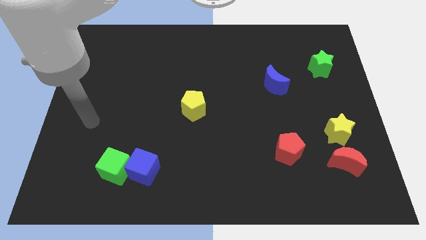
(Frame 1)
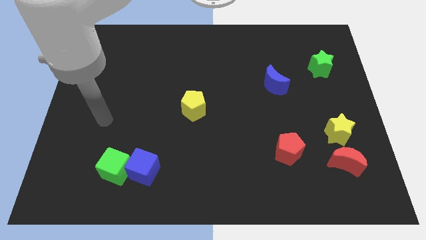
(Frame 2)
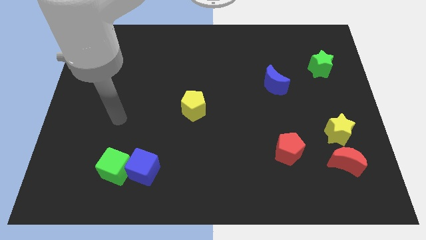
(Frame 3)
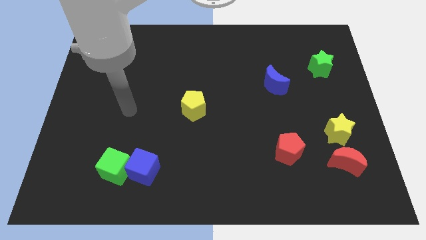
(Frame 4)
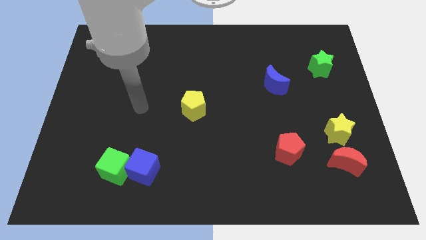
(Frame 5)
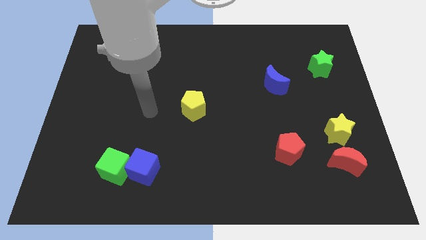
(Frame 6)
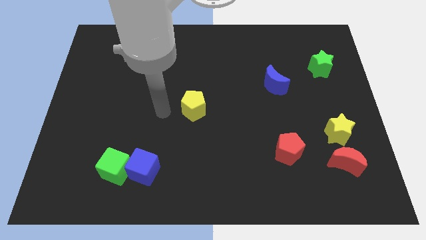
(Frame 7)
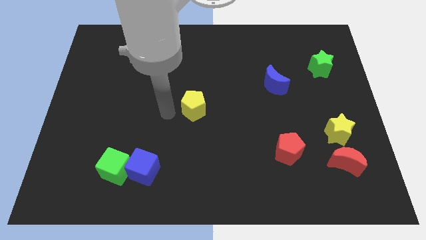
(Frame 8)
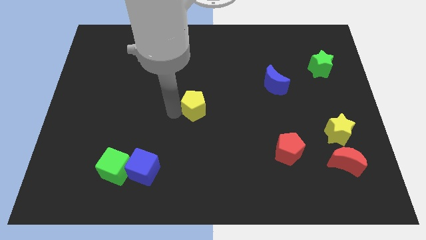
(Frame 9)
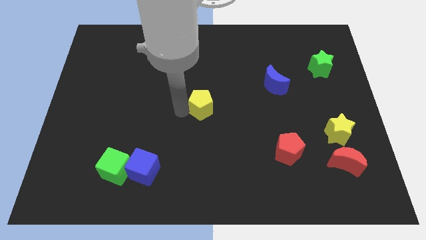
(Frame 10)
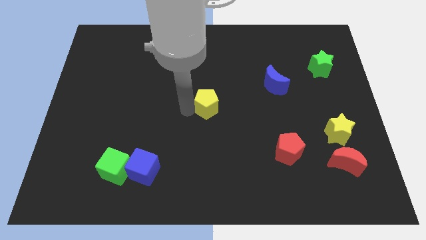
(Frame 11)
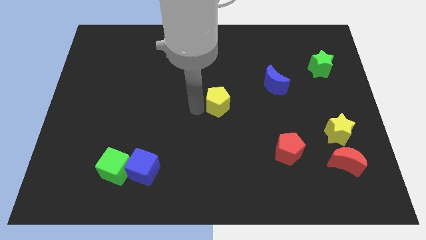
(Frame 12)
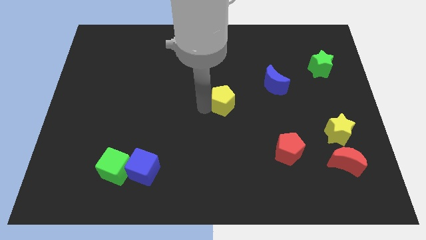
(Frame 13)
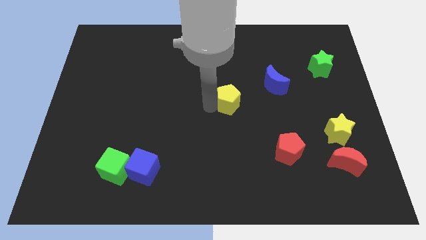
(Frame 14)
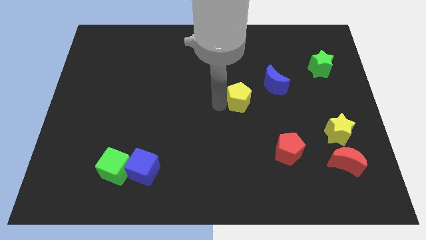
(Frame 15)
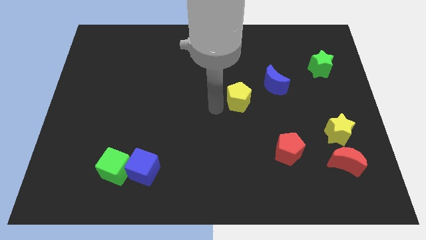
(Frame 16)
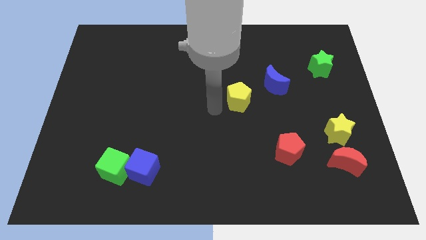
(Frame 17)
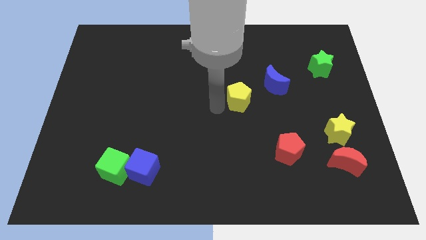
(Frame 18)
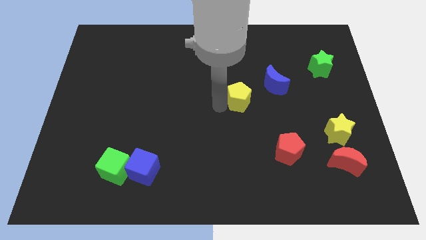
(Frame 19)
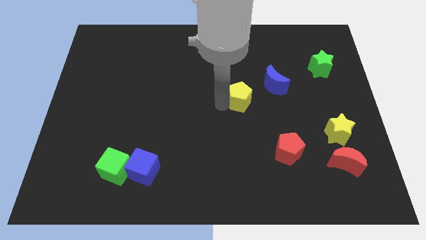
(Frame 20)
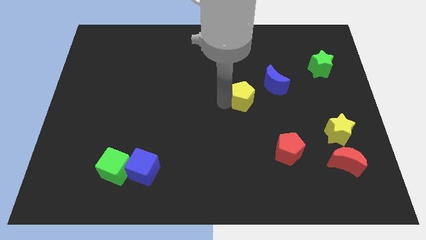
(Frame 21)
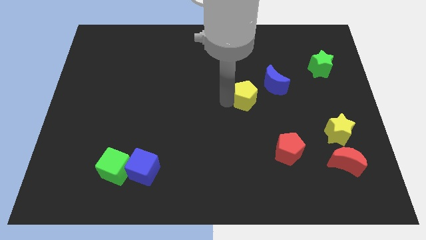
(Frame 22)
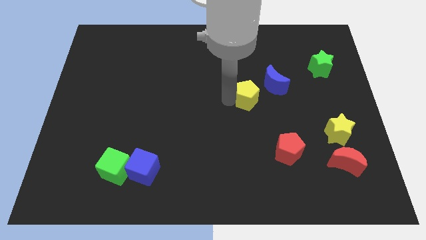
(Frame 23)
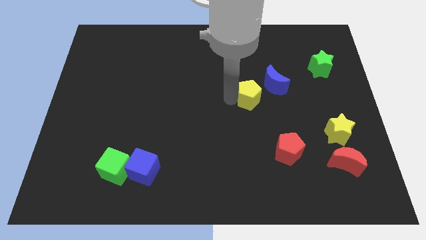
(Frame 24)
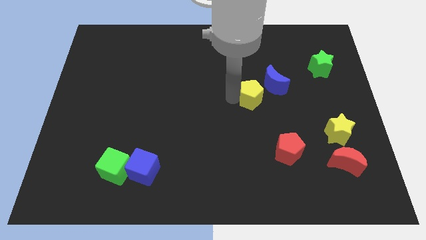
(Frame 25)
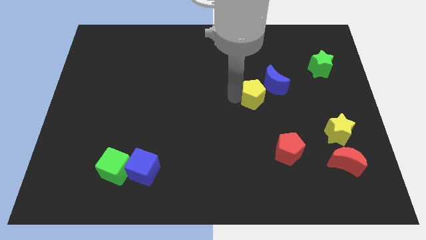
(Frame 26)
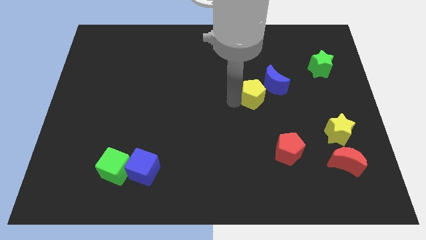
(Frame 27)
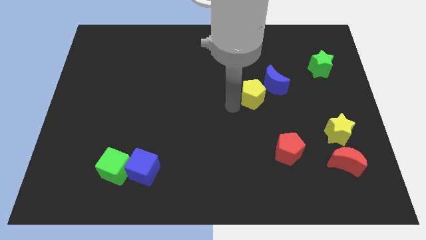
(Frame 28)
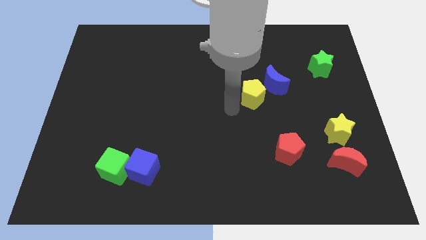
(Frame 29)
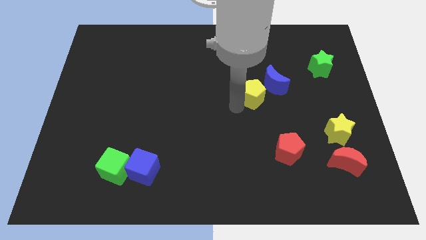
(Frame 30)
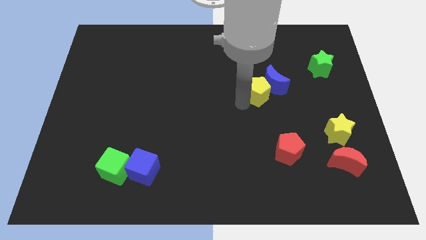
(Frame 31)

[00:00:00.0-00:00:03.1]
move the yellow pentagon towards the blue moon

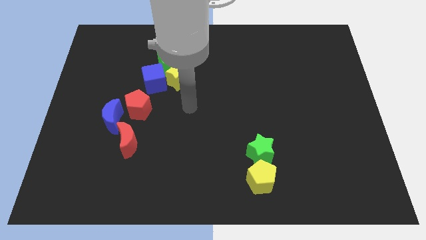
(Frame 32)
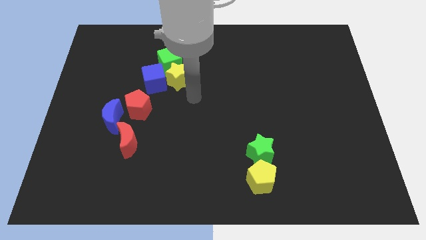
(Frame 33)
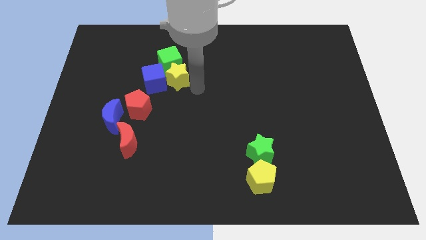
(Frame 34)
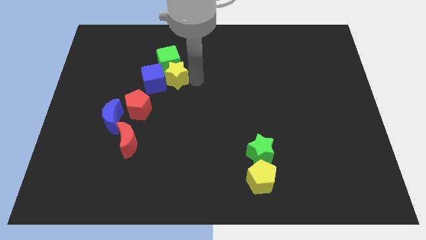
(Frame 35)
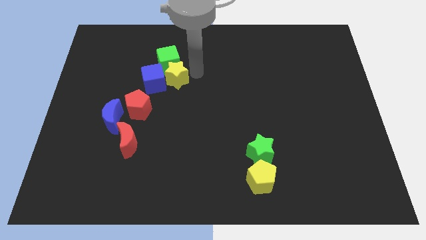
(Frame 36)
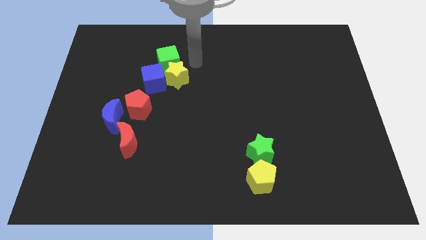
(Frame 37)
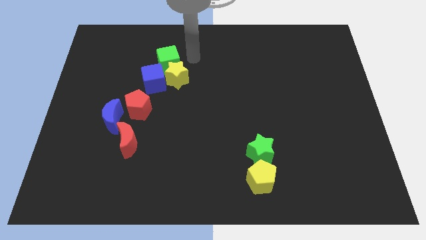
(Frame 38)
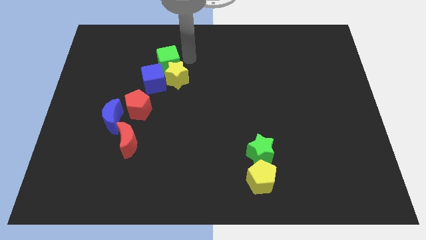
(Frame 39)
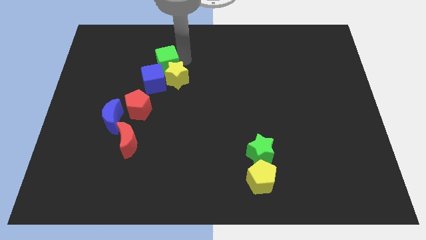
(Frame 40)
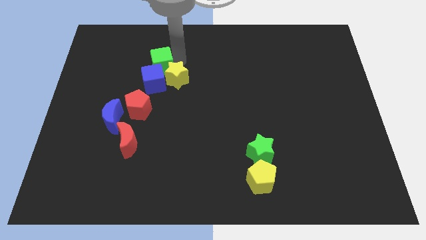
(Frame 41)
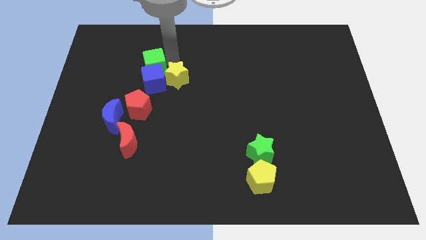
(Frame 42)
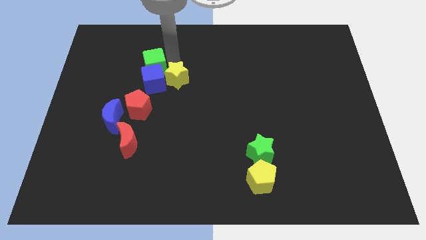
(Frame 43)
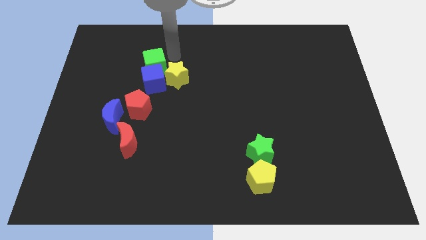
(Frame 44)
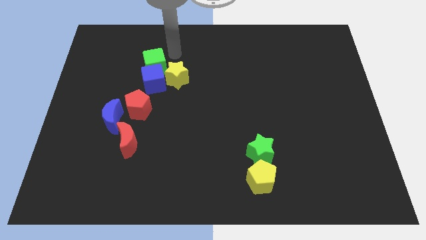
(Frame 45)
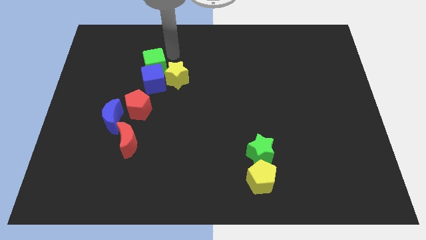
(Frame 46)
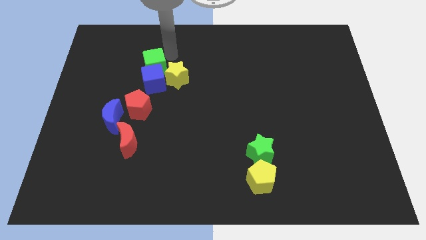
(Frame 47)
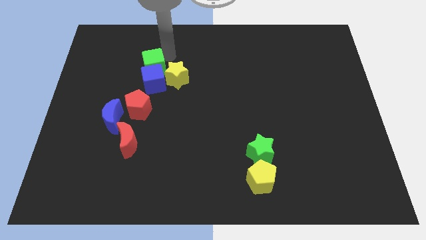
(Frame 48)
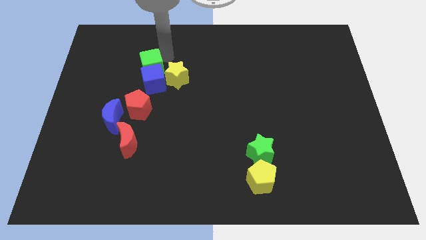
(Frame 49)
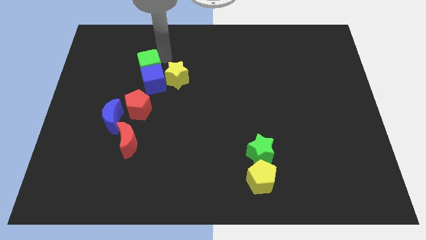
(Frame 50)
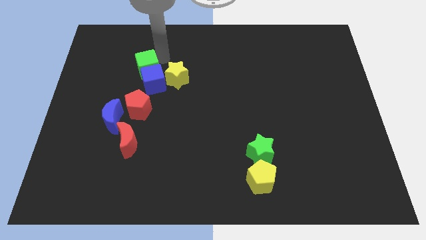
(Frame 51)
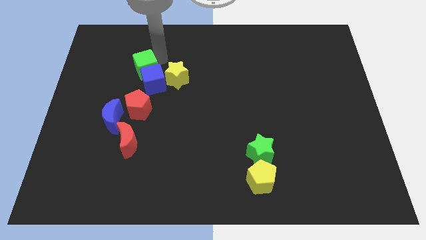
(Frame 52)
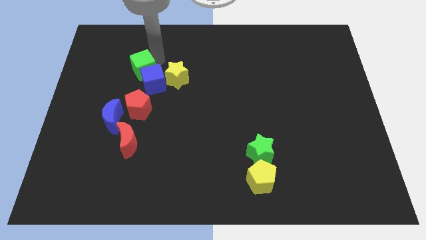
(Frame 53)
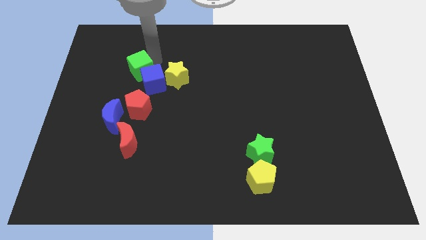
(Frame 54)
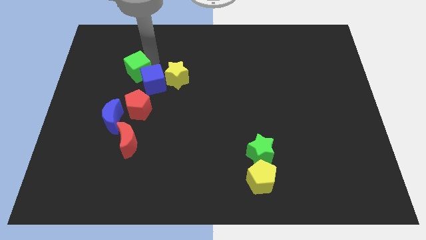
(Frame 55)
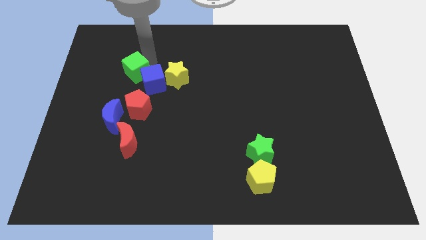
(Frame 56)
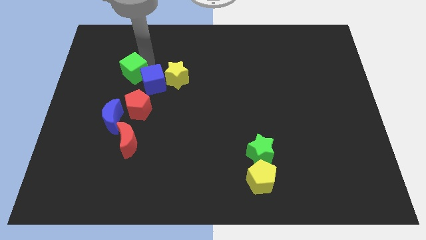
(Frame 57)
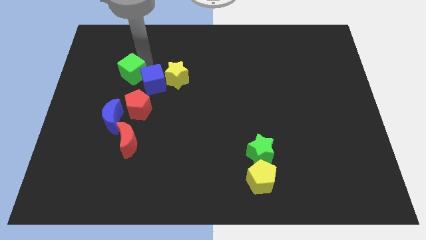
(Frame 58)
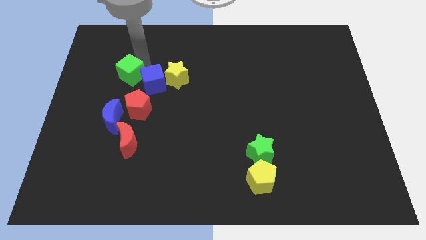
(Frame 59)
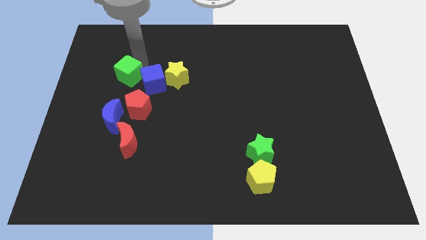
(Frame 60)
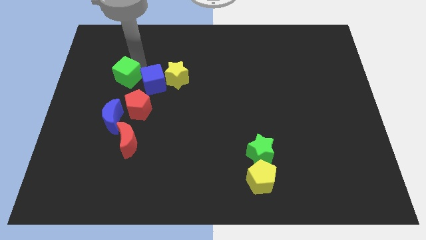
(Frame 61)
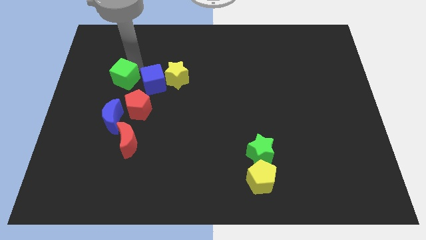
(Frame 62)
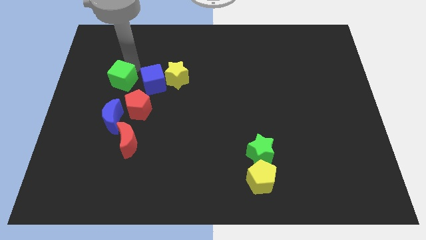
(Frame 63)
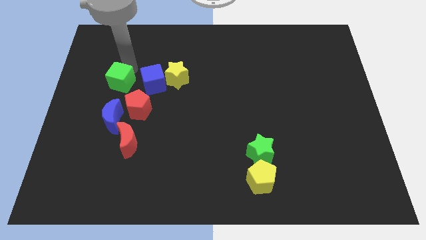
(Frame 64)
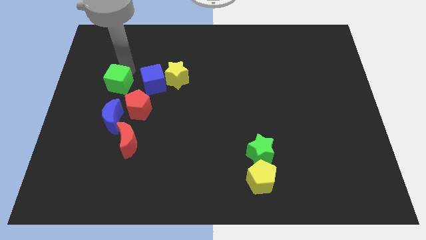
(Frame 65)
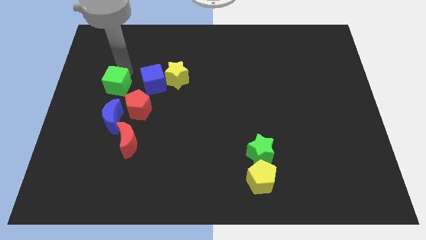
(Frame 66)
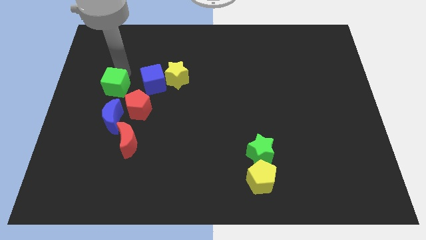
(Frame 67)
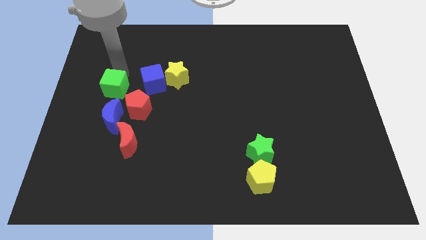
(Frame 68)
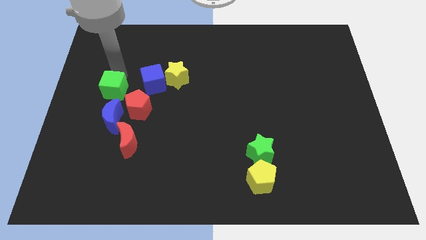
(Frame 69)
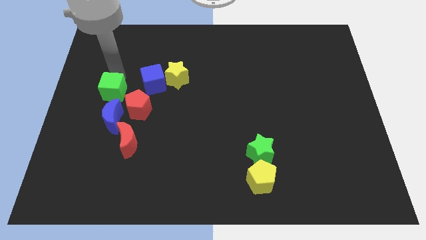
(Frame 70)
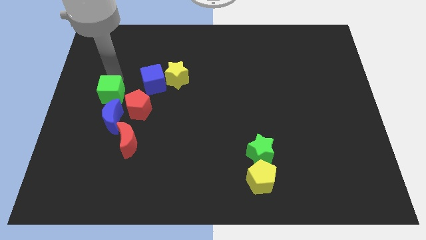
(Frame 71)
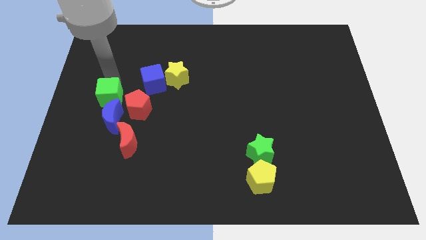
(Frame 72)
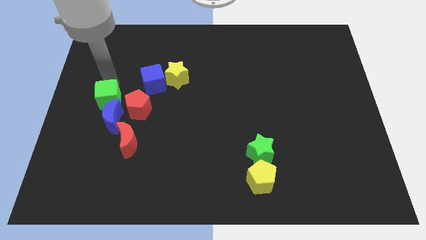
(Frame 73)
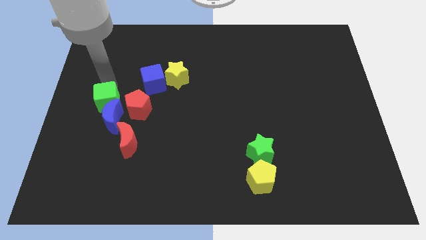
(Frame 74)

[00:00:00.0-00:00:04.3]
slide the green cube to the blue moon
